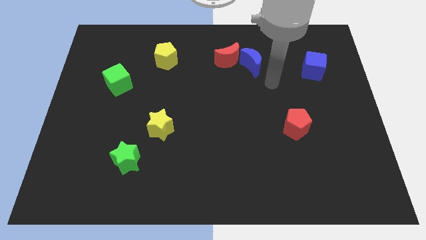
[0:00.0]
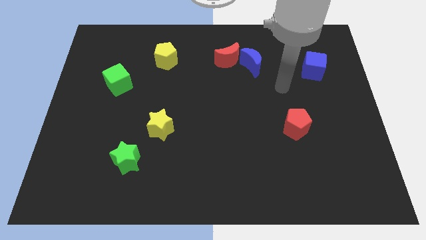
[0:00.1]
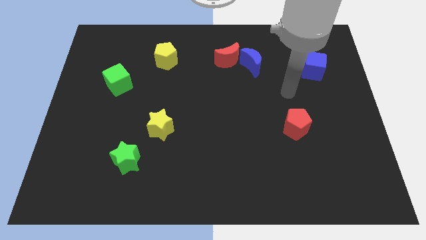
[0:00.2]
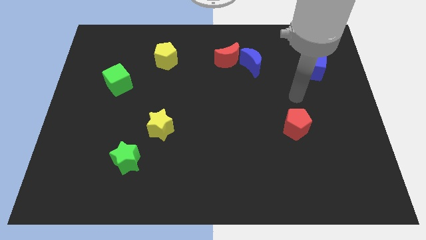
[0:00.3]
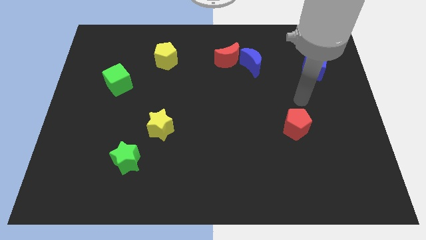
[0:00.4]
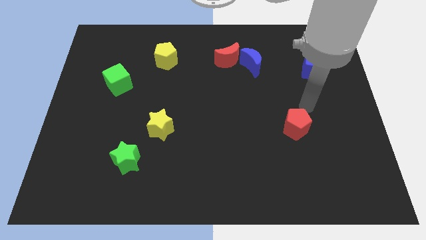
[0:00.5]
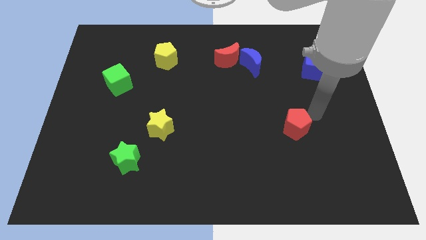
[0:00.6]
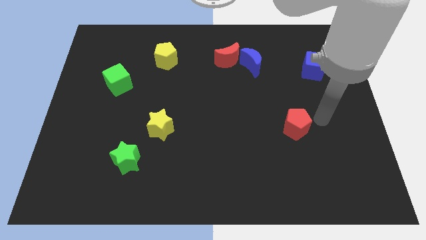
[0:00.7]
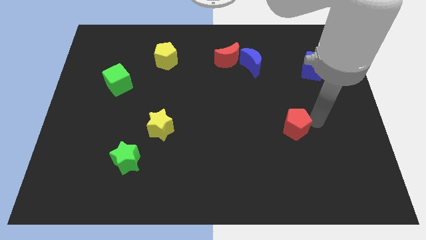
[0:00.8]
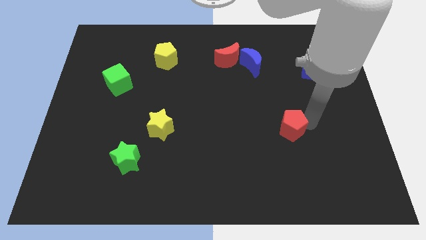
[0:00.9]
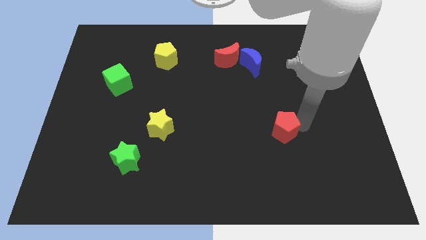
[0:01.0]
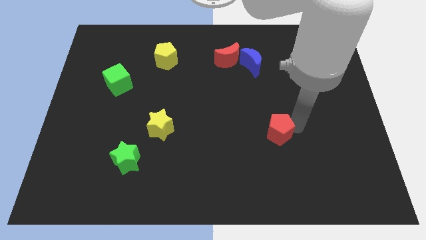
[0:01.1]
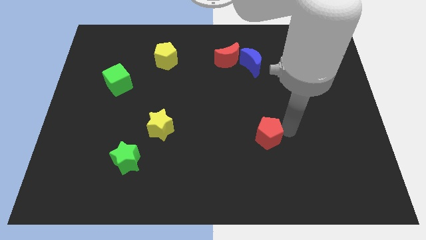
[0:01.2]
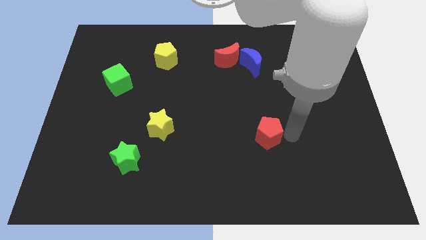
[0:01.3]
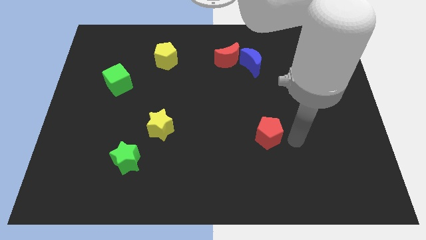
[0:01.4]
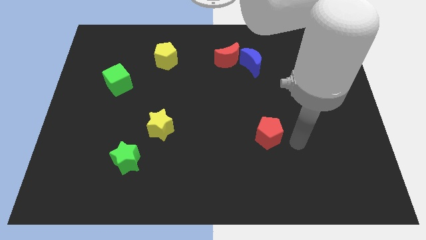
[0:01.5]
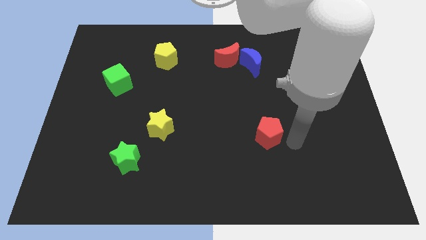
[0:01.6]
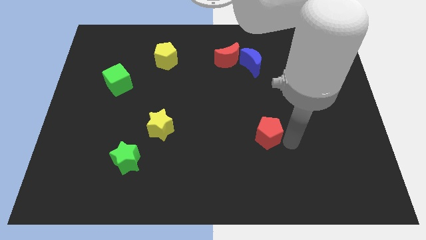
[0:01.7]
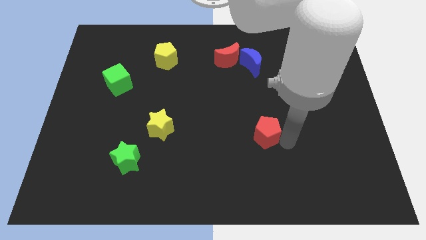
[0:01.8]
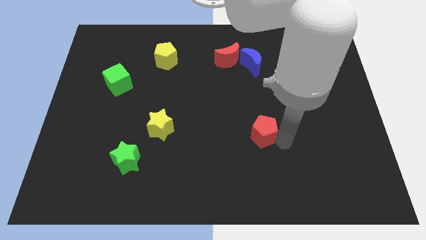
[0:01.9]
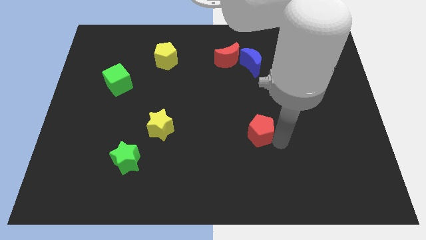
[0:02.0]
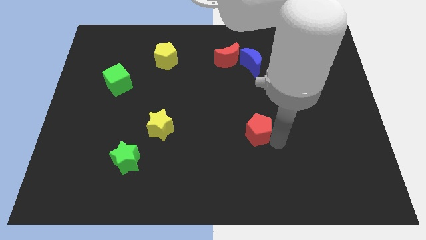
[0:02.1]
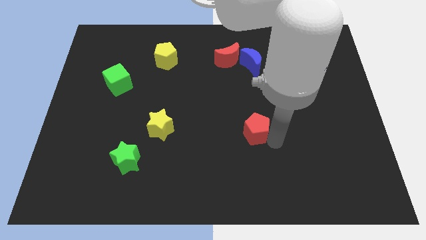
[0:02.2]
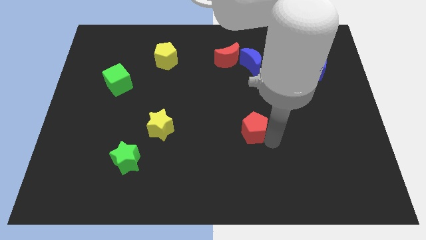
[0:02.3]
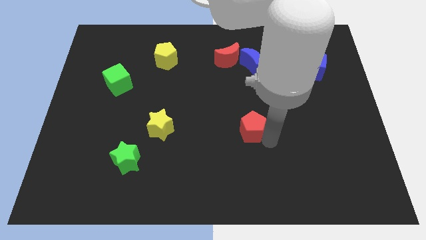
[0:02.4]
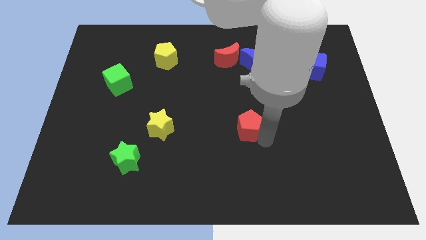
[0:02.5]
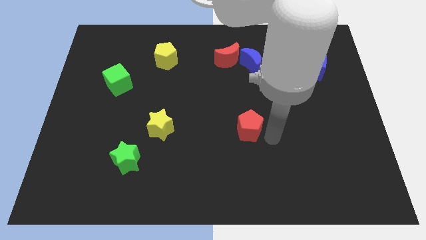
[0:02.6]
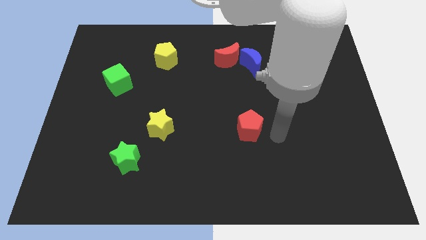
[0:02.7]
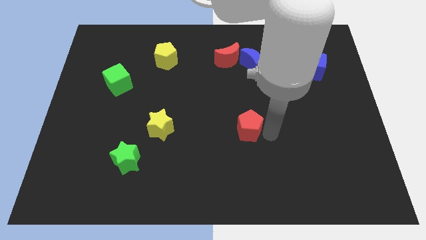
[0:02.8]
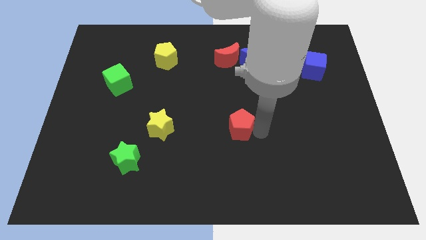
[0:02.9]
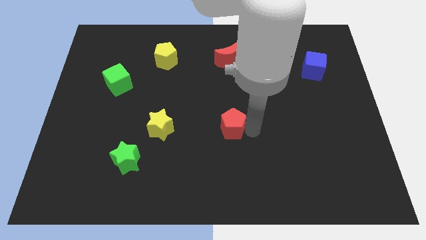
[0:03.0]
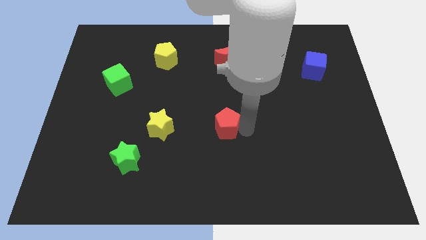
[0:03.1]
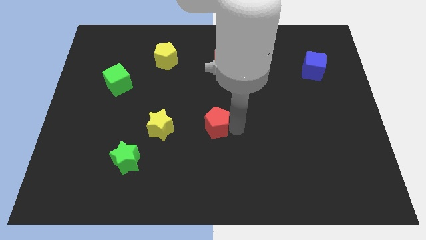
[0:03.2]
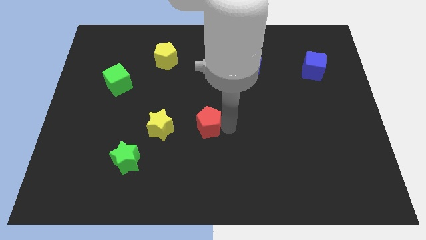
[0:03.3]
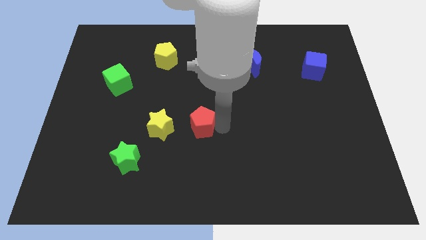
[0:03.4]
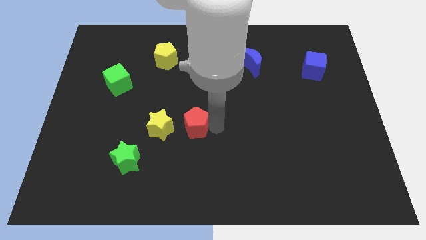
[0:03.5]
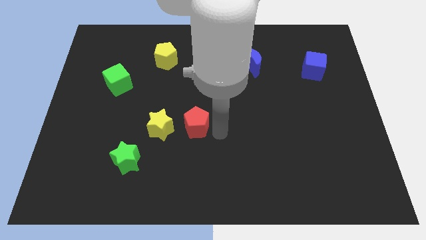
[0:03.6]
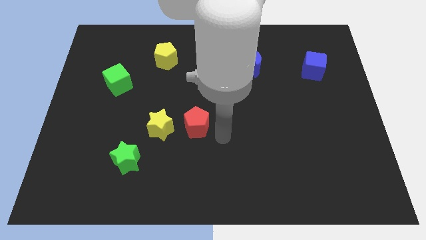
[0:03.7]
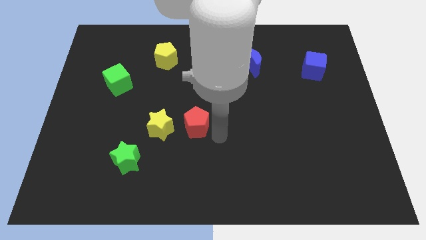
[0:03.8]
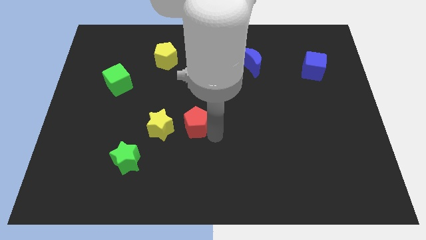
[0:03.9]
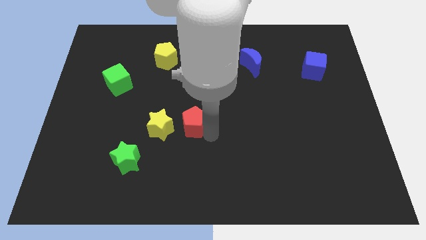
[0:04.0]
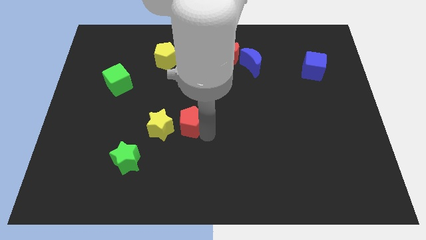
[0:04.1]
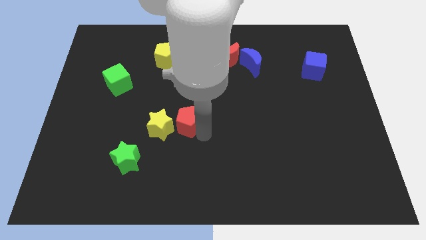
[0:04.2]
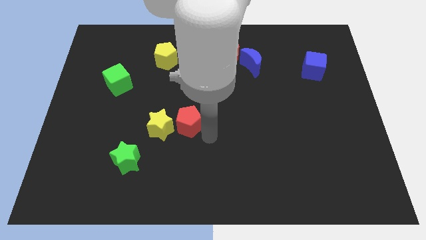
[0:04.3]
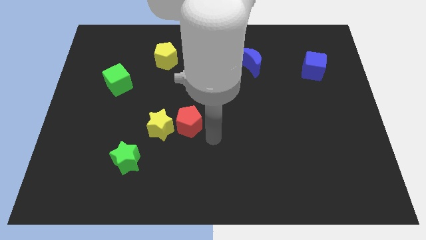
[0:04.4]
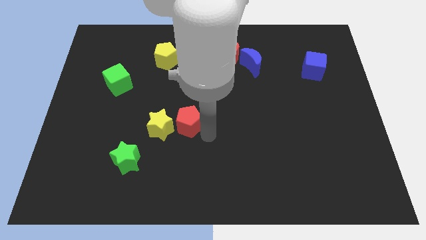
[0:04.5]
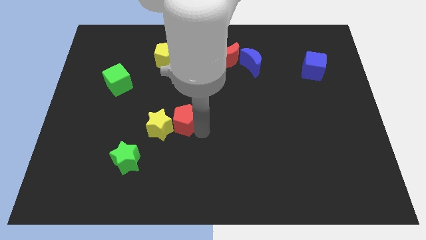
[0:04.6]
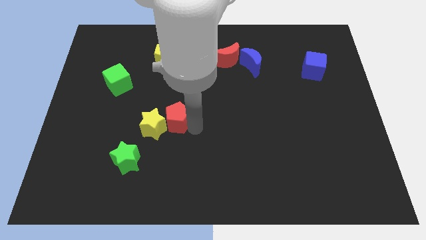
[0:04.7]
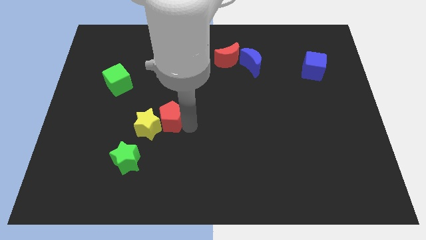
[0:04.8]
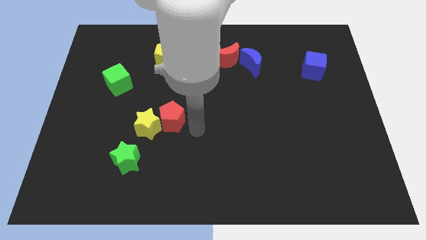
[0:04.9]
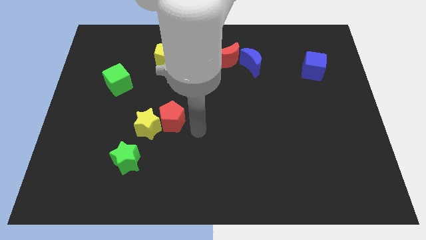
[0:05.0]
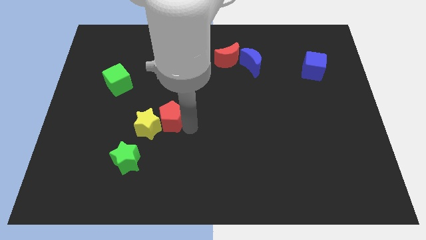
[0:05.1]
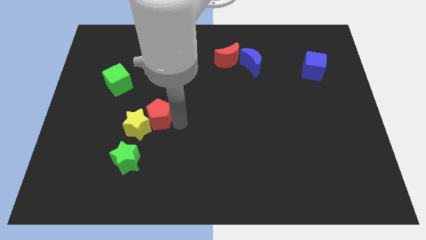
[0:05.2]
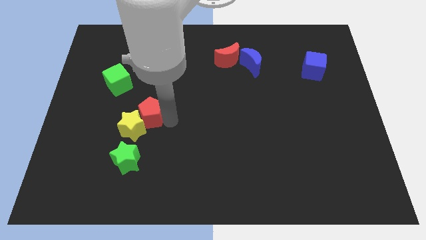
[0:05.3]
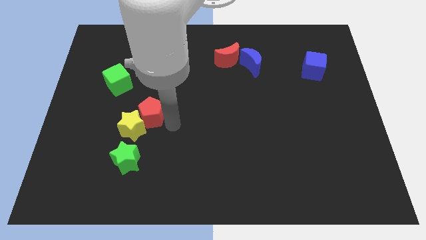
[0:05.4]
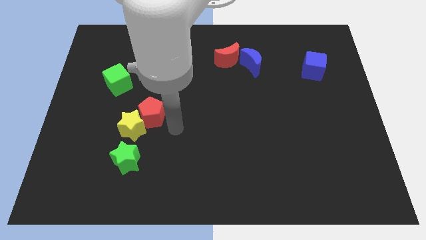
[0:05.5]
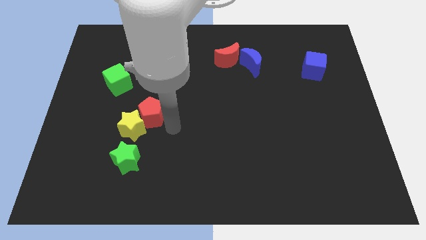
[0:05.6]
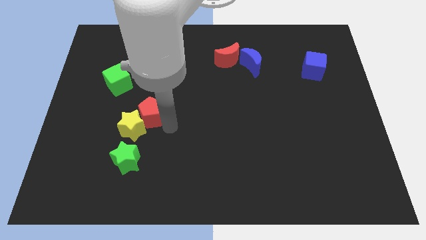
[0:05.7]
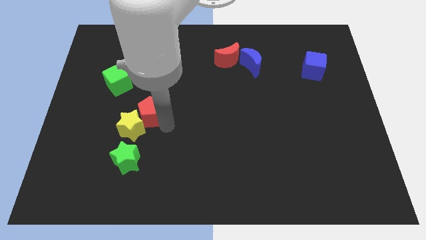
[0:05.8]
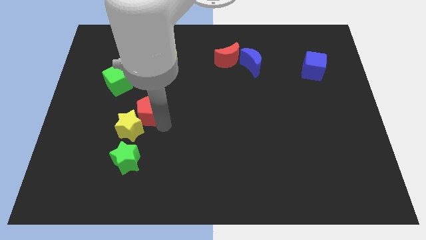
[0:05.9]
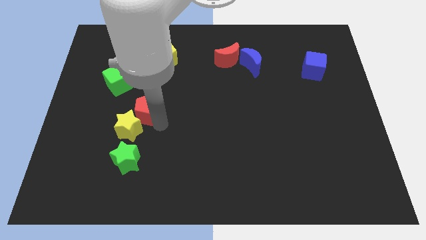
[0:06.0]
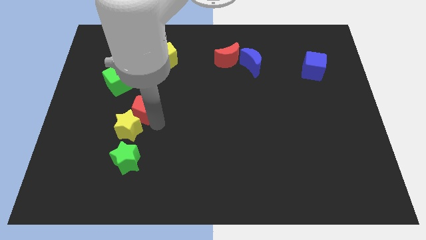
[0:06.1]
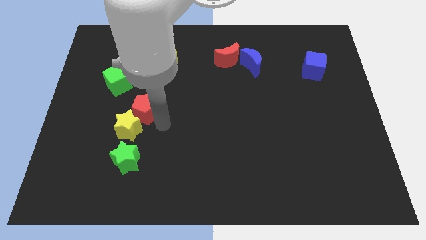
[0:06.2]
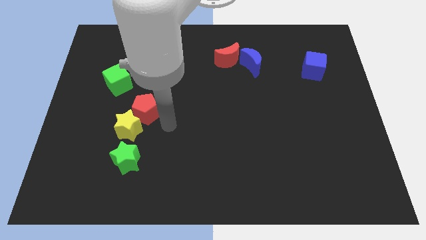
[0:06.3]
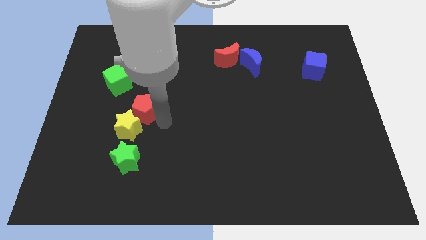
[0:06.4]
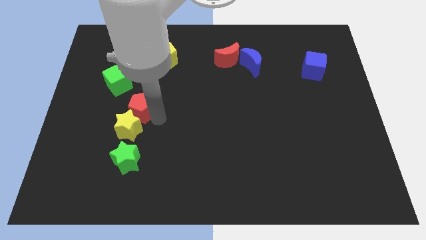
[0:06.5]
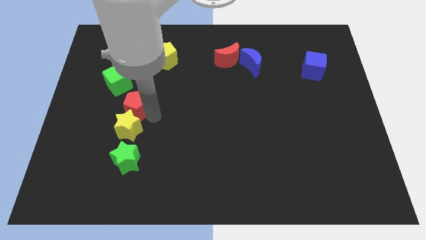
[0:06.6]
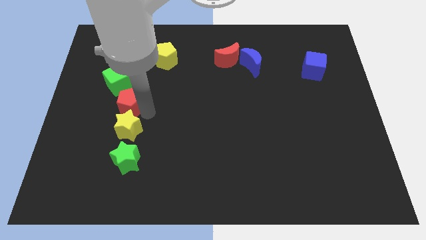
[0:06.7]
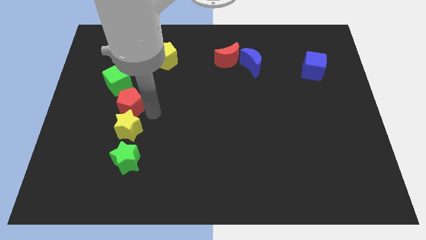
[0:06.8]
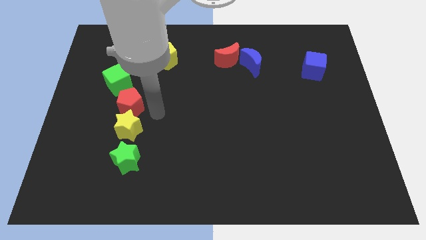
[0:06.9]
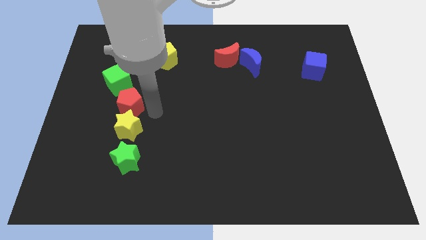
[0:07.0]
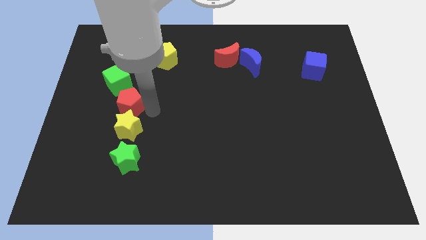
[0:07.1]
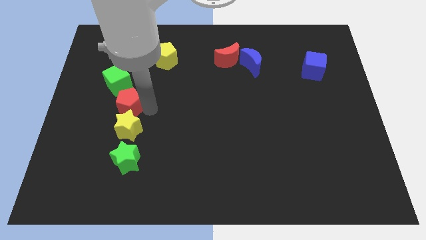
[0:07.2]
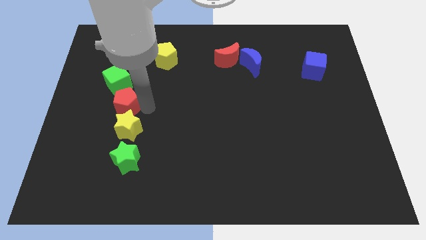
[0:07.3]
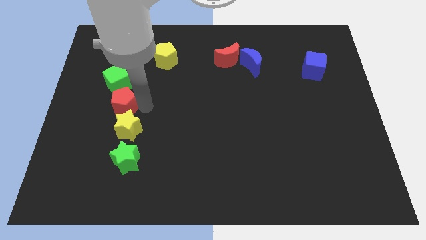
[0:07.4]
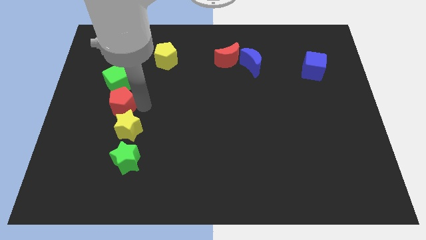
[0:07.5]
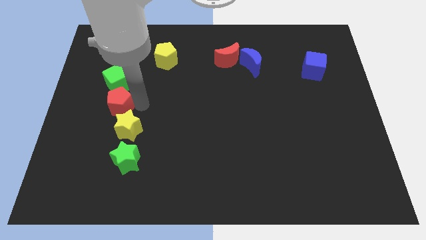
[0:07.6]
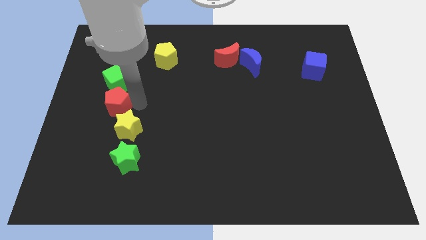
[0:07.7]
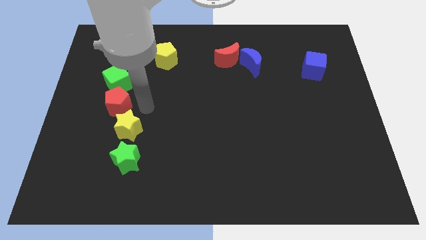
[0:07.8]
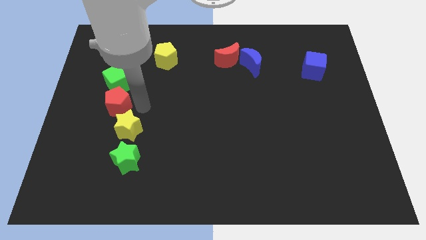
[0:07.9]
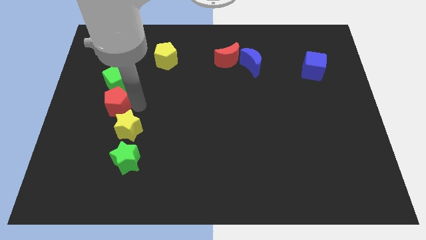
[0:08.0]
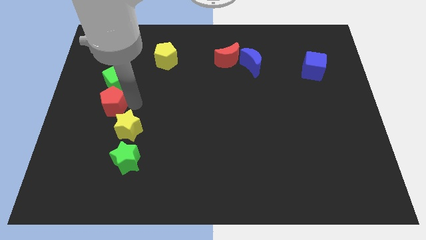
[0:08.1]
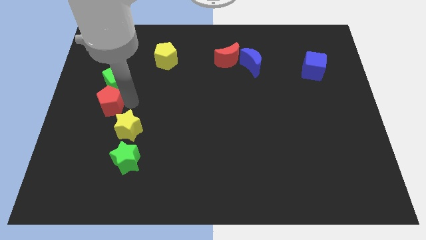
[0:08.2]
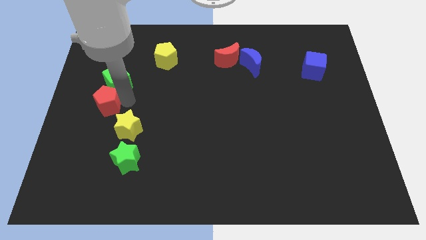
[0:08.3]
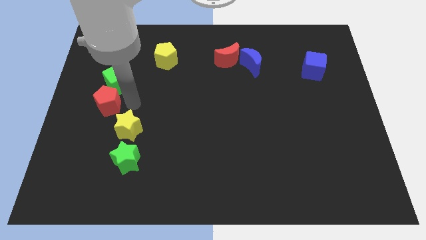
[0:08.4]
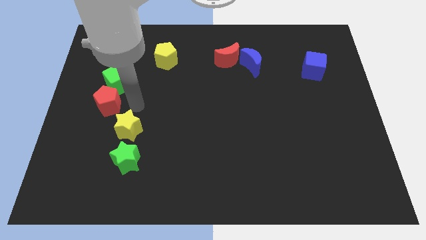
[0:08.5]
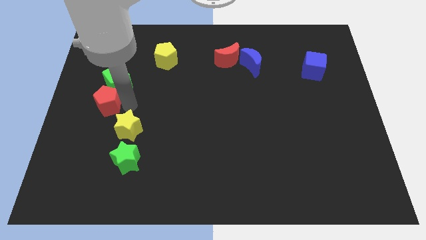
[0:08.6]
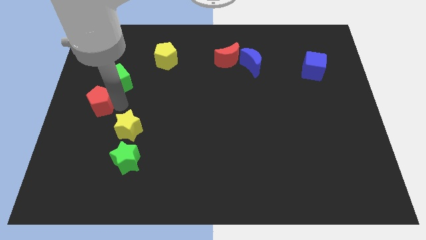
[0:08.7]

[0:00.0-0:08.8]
put the red pentagon to the left side of the board
